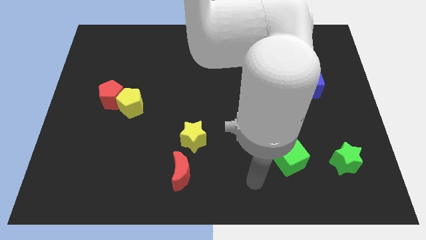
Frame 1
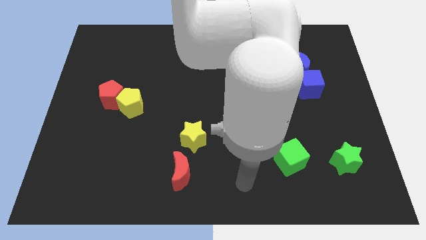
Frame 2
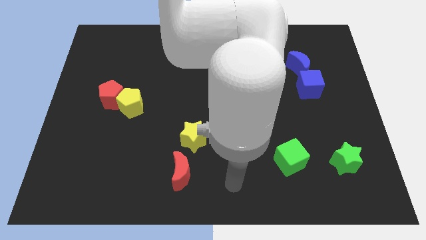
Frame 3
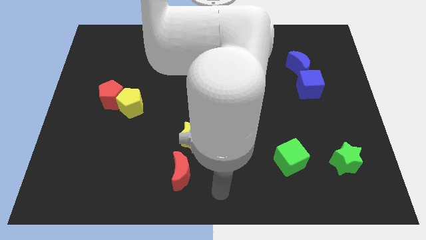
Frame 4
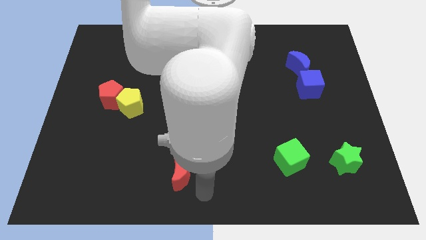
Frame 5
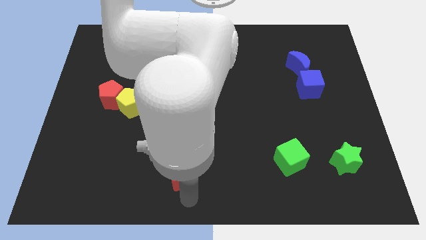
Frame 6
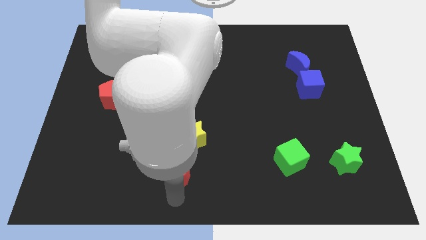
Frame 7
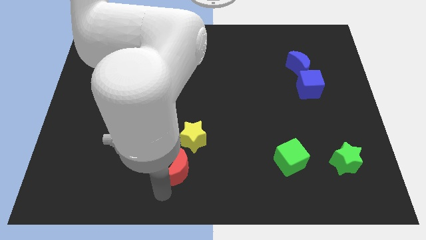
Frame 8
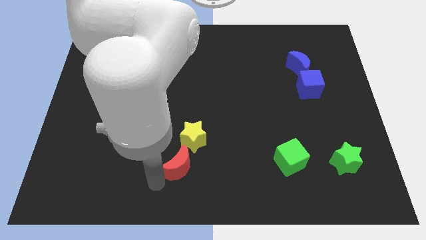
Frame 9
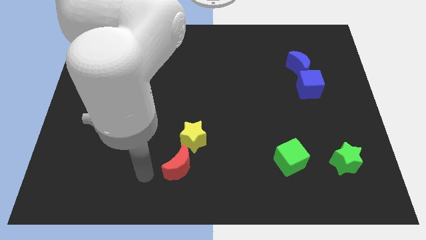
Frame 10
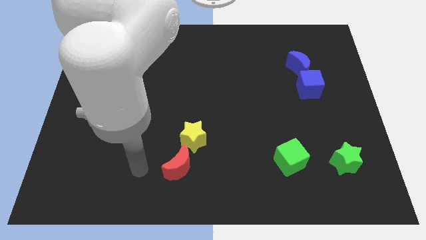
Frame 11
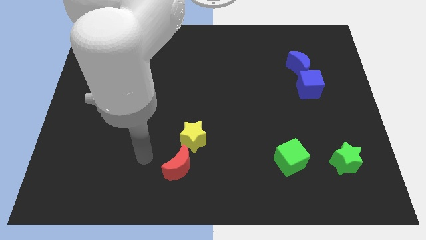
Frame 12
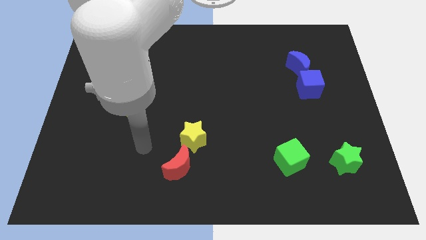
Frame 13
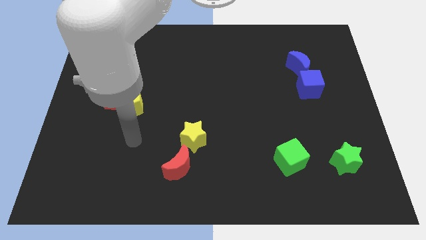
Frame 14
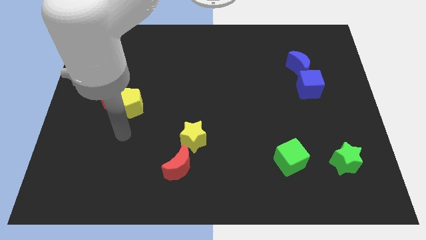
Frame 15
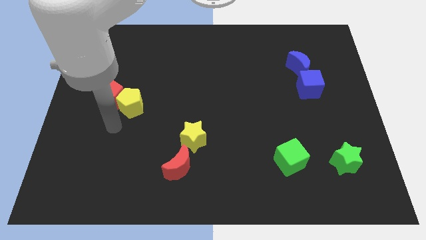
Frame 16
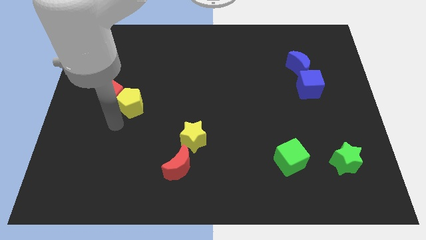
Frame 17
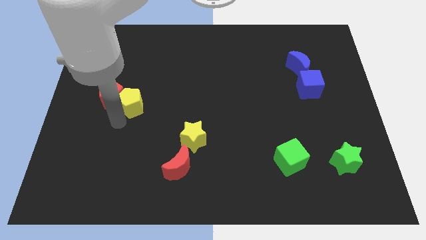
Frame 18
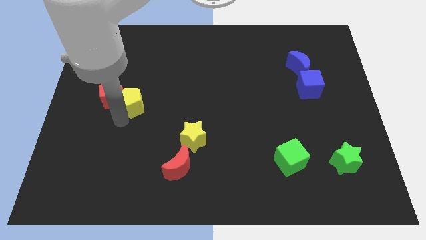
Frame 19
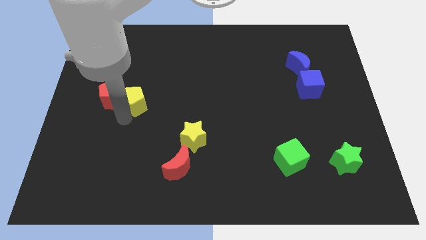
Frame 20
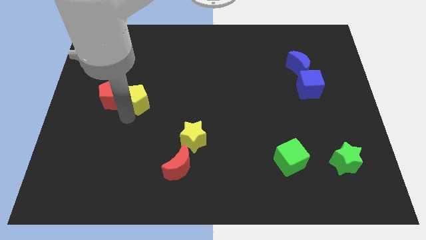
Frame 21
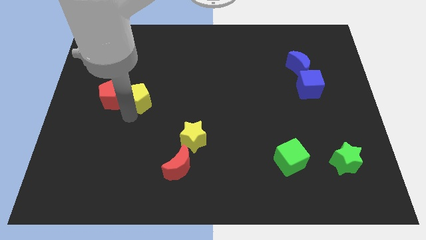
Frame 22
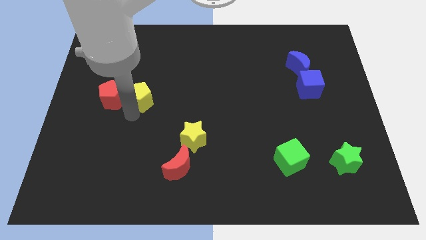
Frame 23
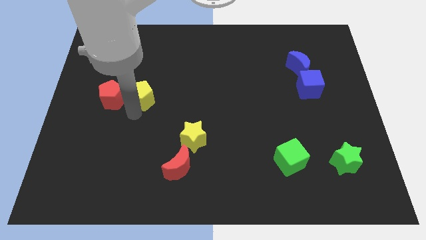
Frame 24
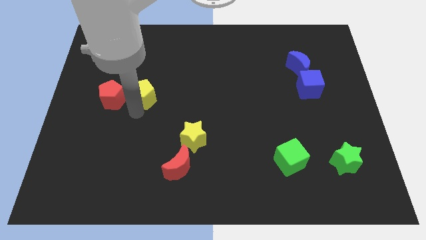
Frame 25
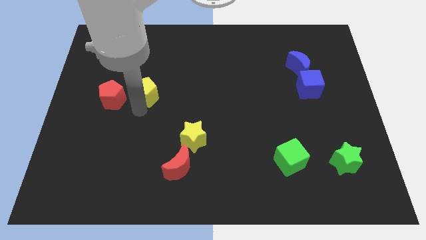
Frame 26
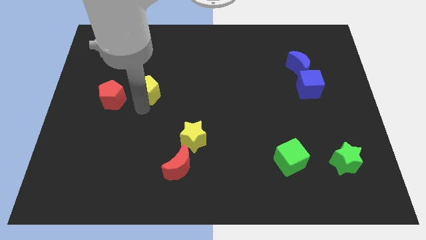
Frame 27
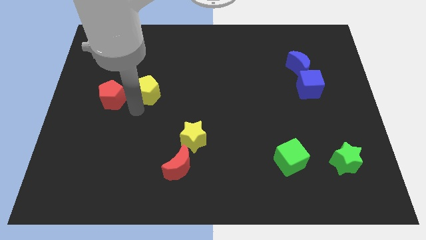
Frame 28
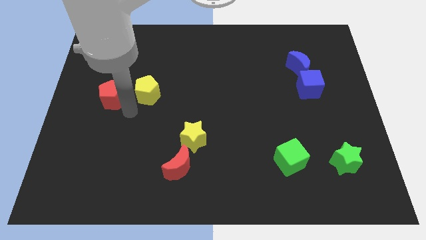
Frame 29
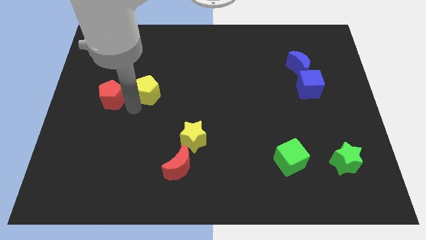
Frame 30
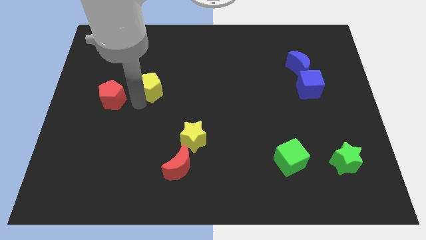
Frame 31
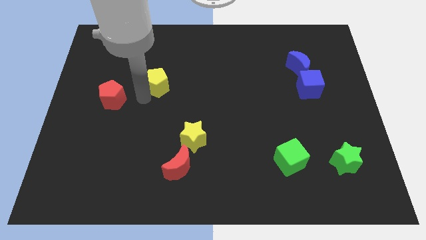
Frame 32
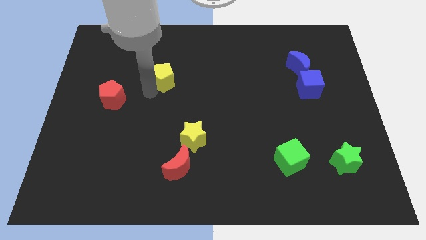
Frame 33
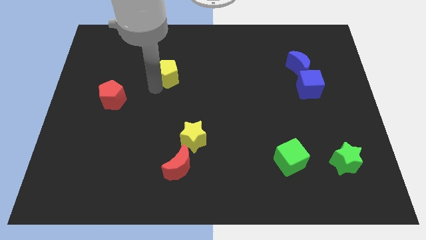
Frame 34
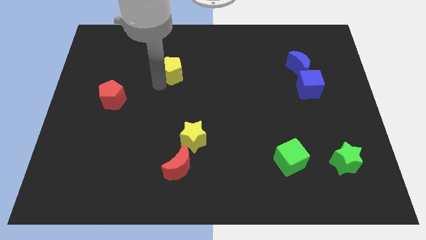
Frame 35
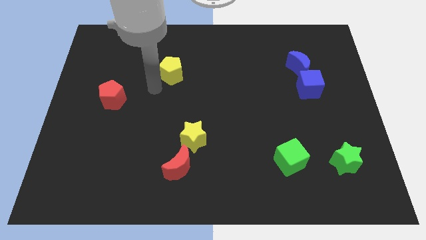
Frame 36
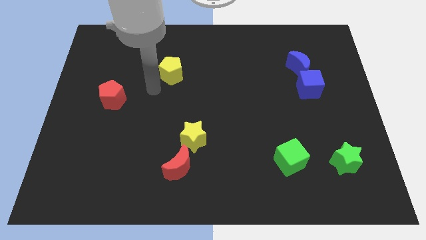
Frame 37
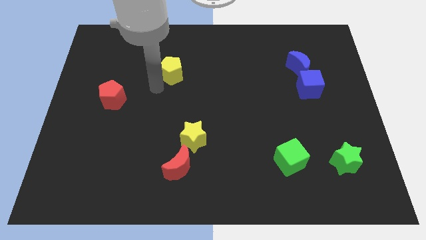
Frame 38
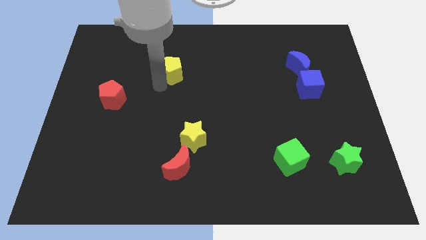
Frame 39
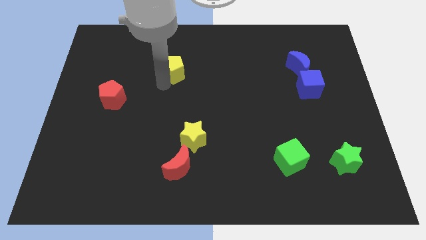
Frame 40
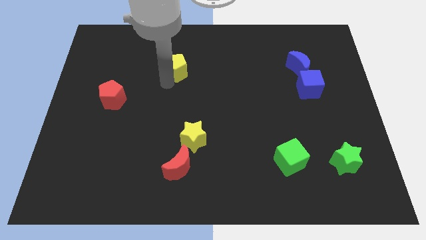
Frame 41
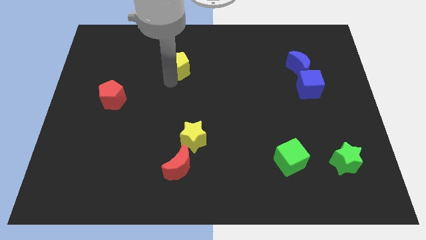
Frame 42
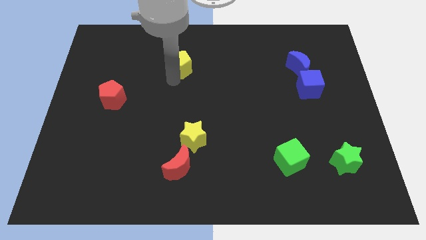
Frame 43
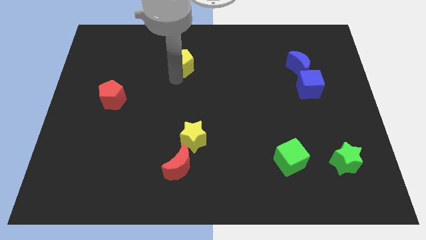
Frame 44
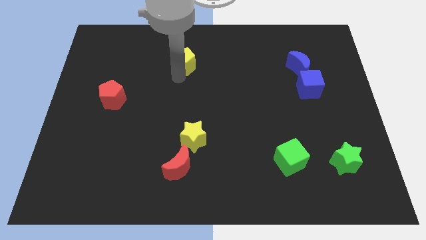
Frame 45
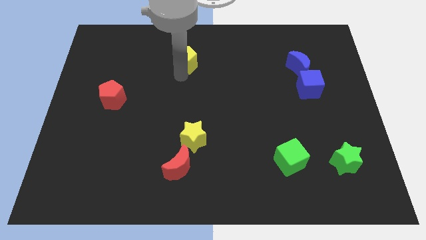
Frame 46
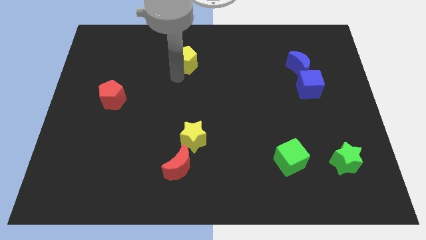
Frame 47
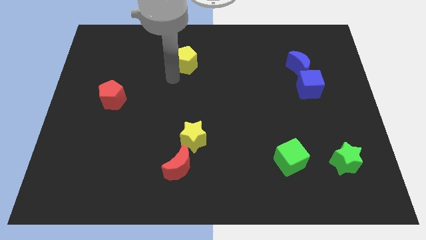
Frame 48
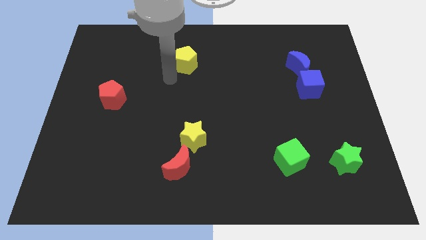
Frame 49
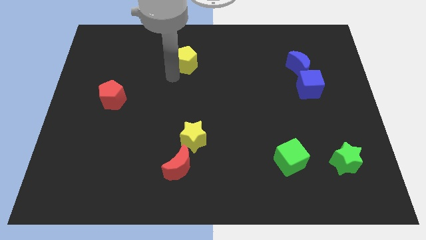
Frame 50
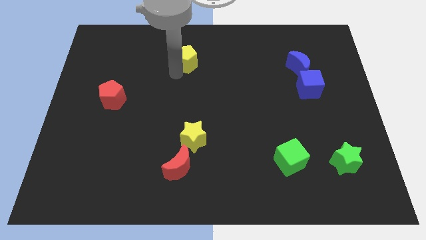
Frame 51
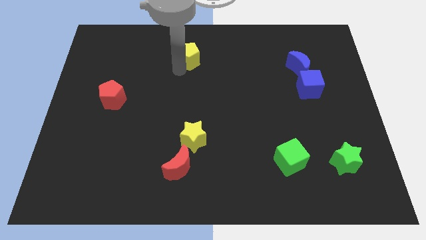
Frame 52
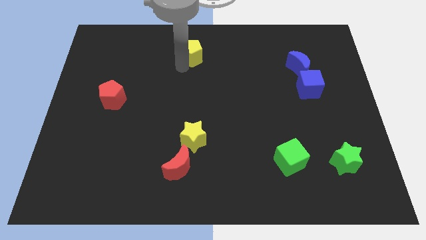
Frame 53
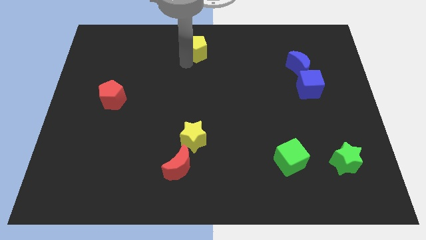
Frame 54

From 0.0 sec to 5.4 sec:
slide the yellow pentagon to the top

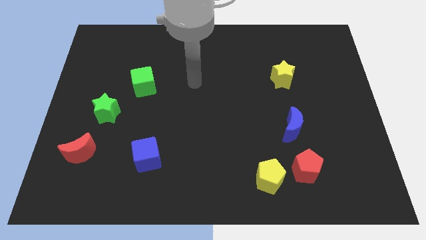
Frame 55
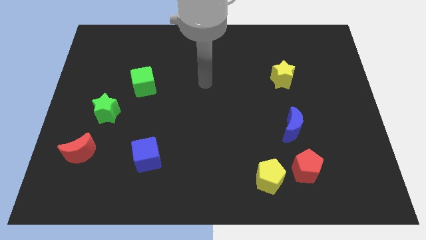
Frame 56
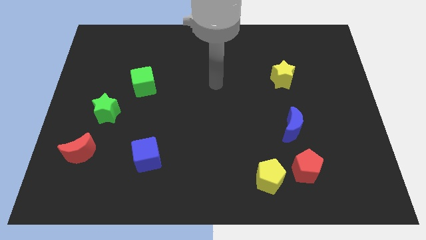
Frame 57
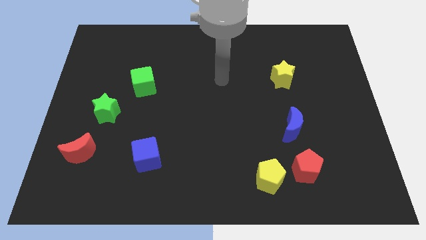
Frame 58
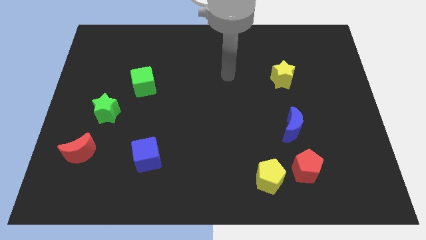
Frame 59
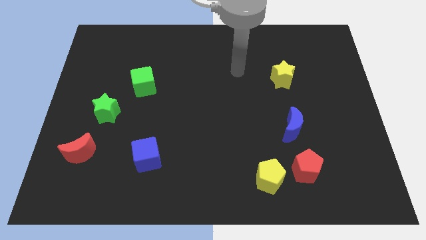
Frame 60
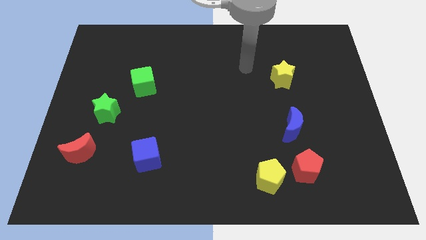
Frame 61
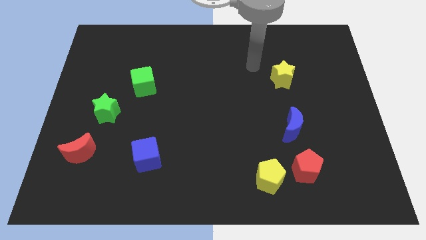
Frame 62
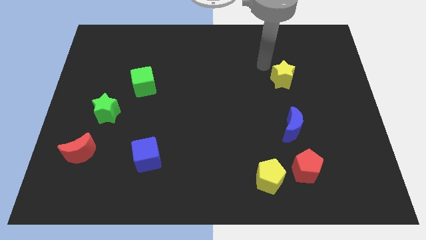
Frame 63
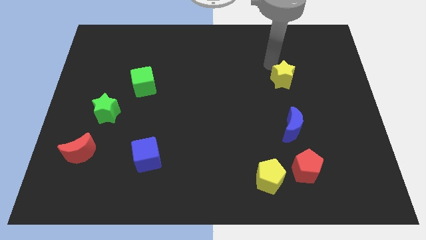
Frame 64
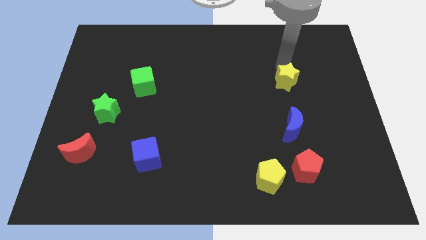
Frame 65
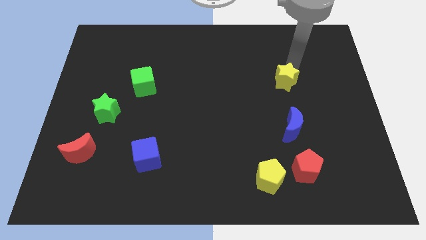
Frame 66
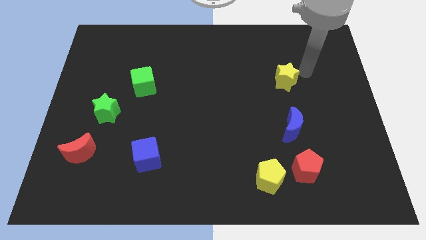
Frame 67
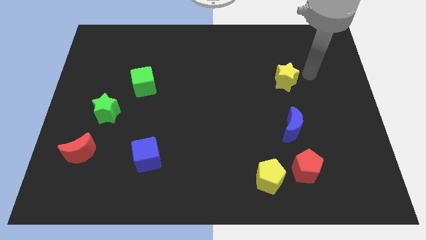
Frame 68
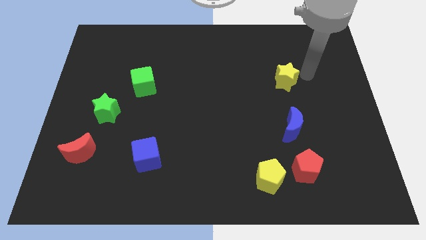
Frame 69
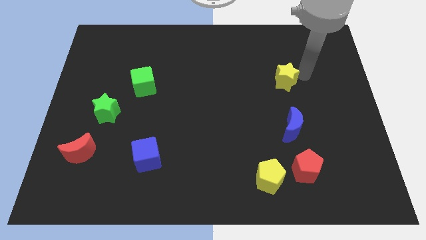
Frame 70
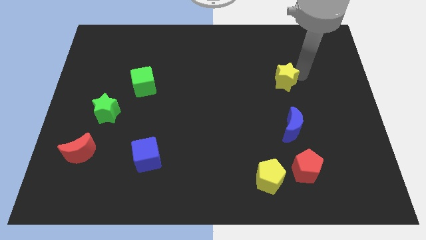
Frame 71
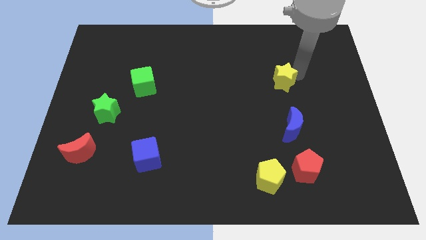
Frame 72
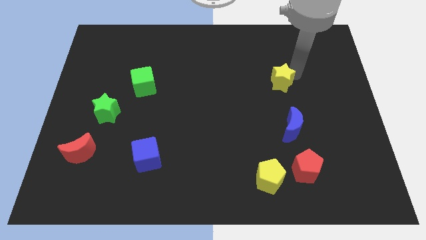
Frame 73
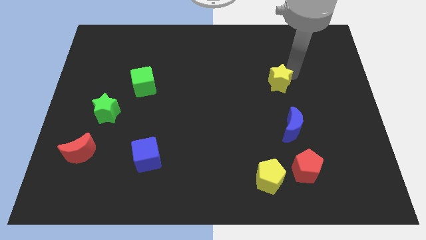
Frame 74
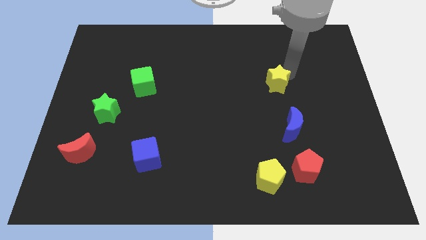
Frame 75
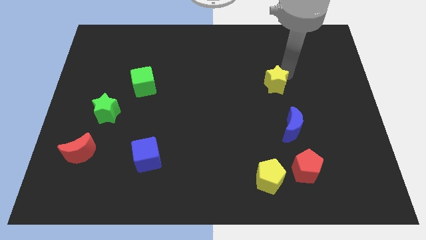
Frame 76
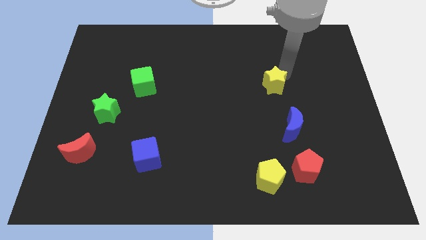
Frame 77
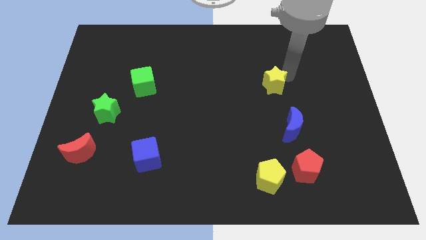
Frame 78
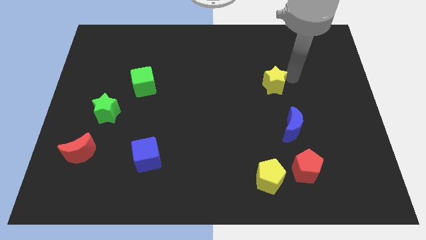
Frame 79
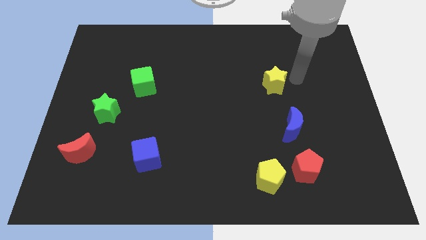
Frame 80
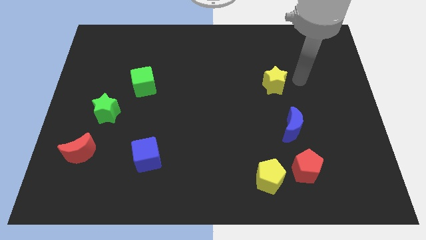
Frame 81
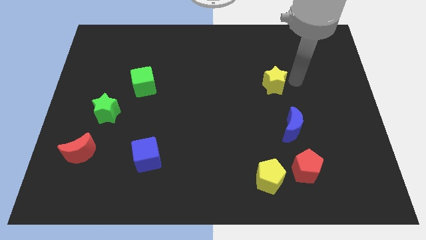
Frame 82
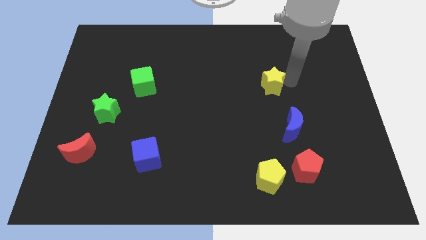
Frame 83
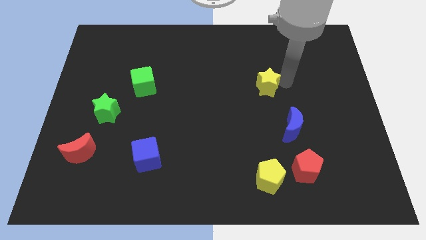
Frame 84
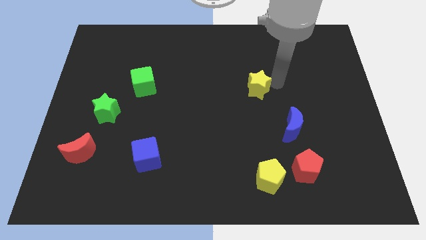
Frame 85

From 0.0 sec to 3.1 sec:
slide the yellow star to the middle of the board
